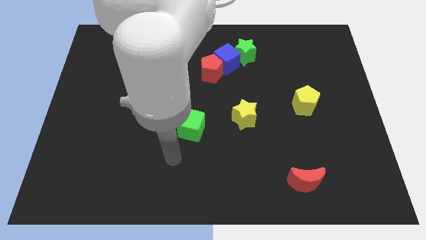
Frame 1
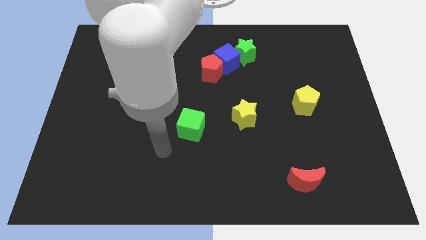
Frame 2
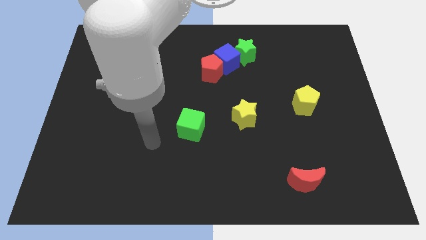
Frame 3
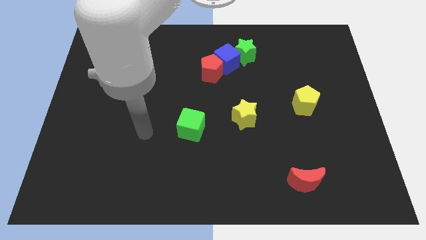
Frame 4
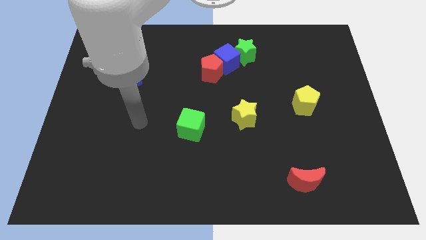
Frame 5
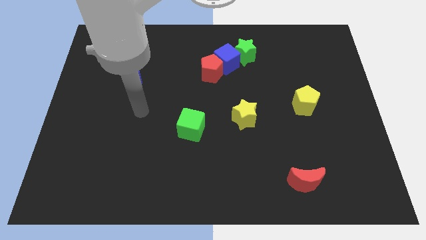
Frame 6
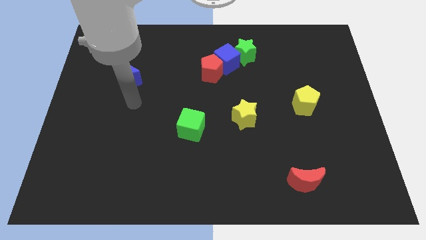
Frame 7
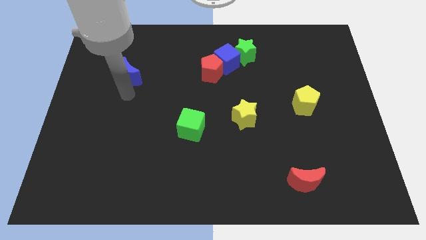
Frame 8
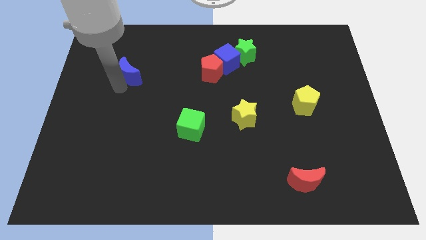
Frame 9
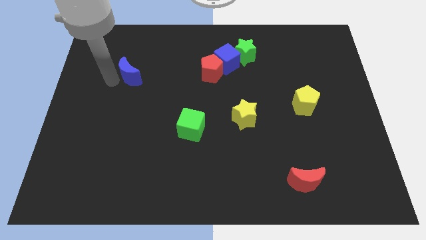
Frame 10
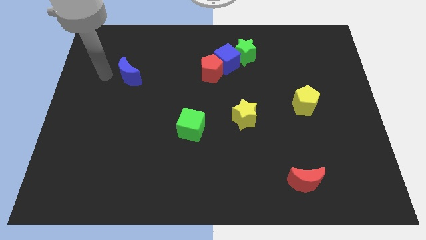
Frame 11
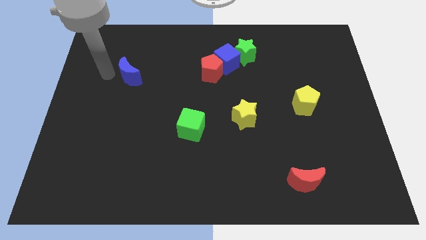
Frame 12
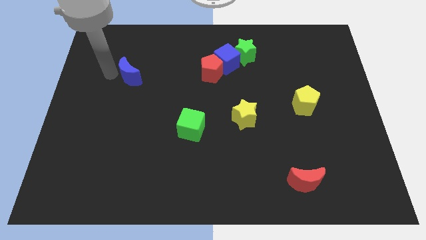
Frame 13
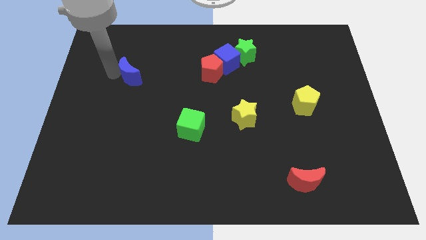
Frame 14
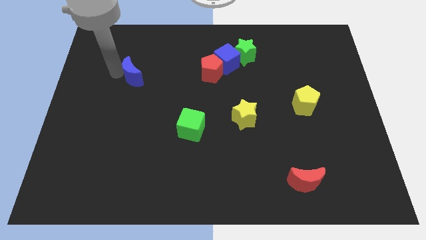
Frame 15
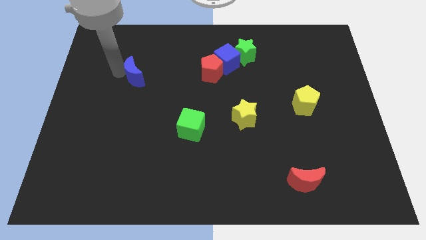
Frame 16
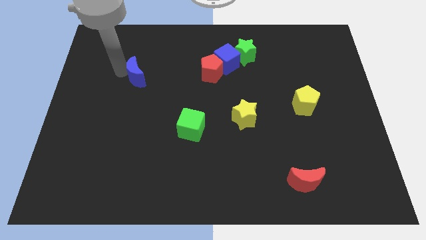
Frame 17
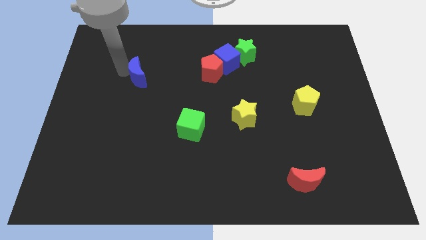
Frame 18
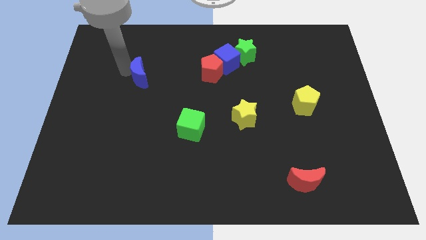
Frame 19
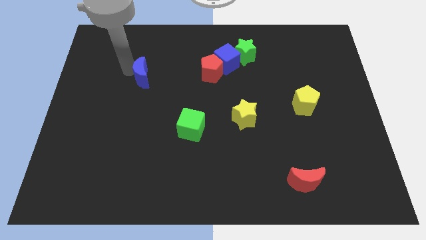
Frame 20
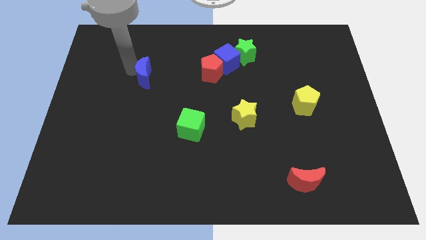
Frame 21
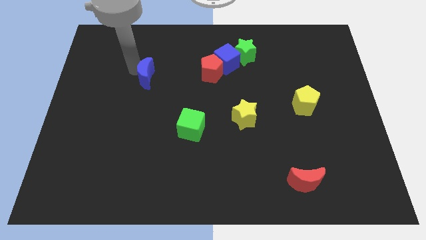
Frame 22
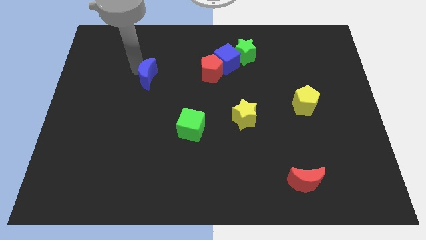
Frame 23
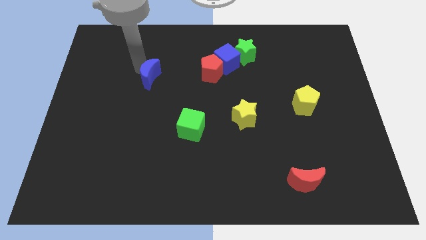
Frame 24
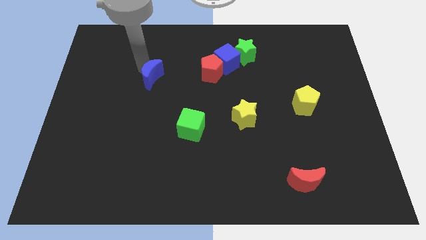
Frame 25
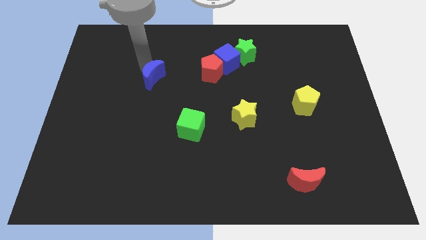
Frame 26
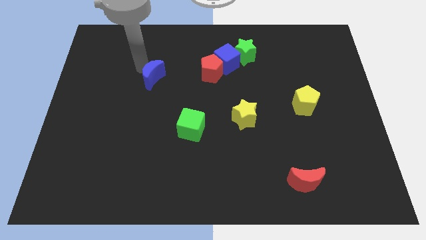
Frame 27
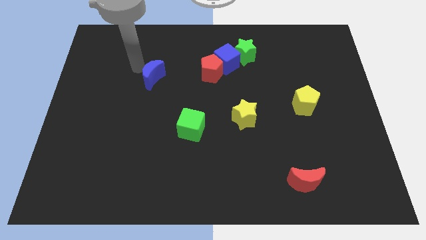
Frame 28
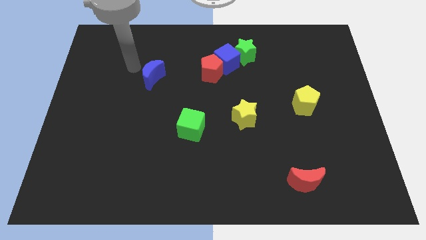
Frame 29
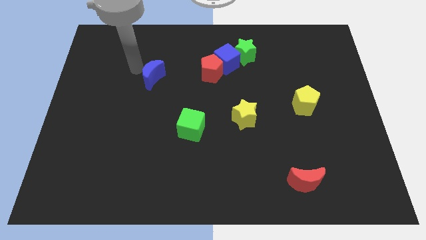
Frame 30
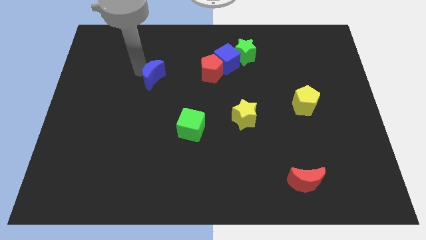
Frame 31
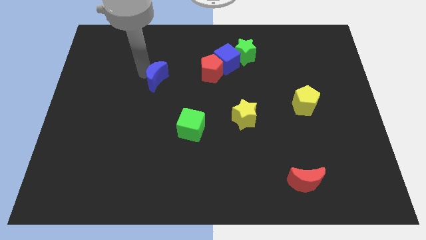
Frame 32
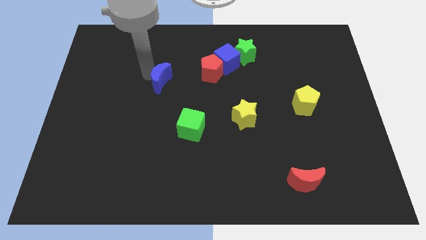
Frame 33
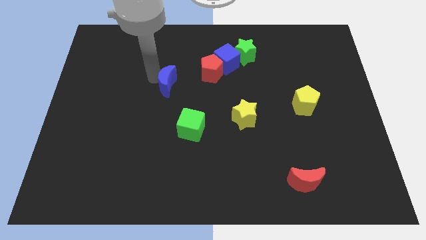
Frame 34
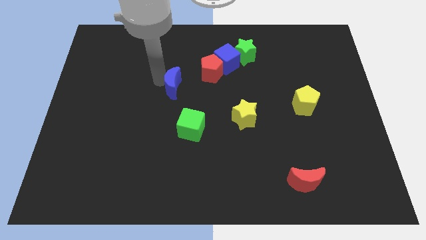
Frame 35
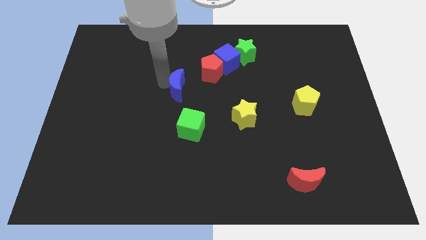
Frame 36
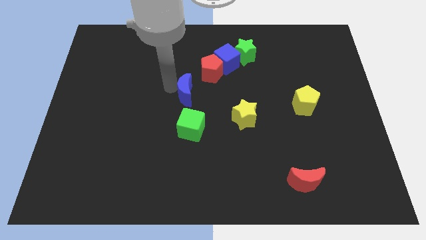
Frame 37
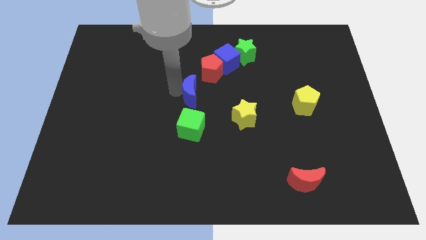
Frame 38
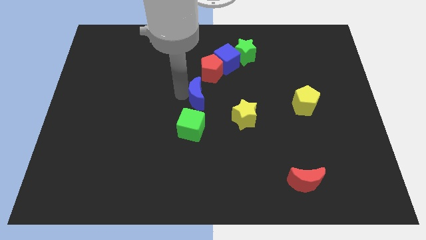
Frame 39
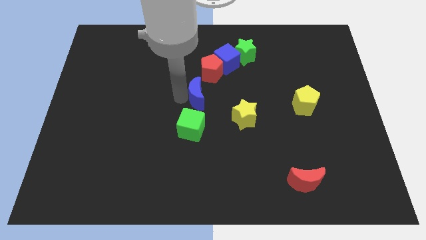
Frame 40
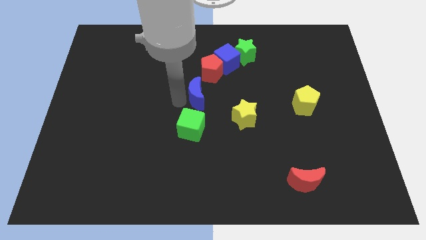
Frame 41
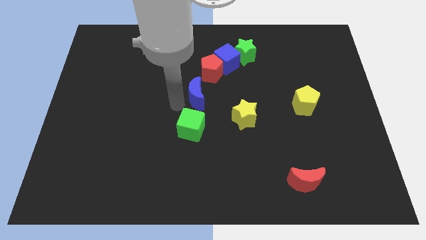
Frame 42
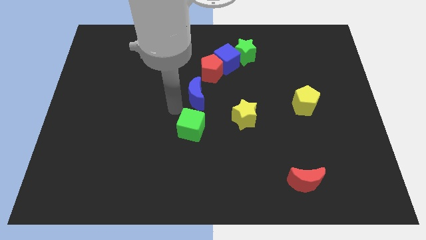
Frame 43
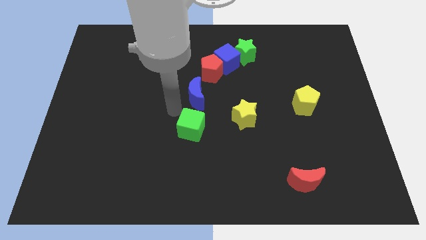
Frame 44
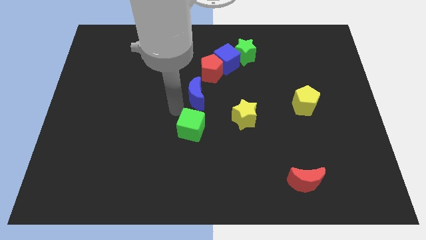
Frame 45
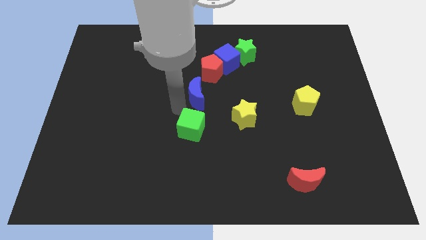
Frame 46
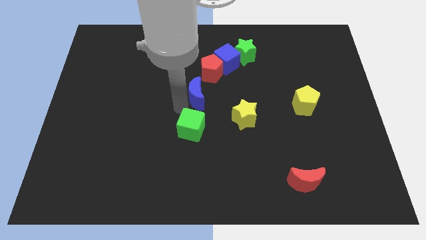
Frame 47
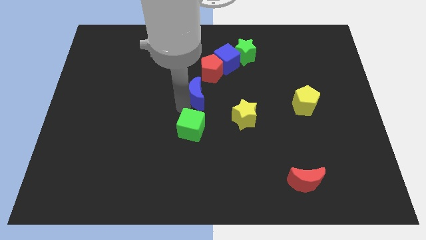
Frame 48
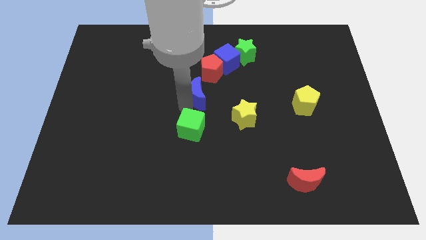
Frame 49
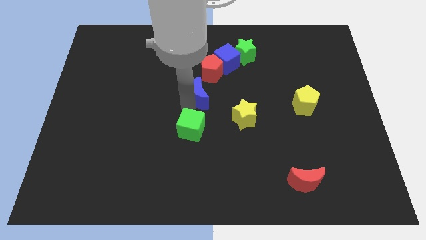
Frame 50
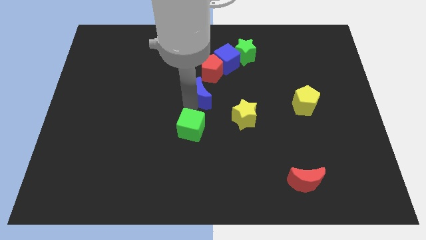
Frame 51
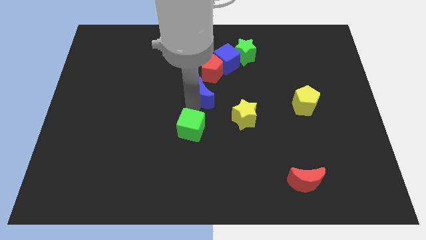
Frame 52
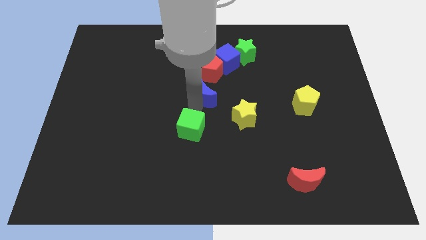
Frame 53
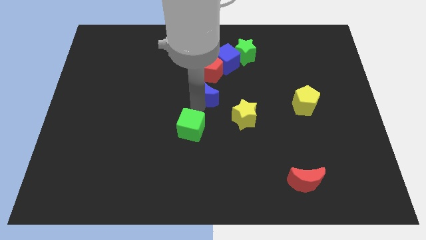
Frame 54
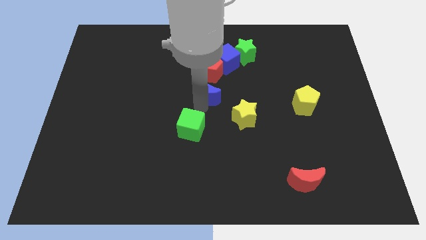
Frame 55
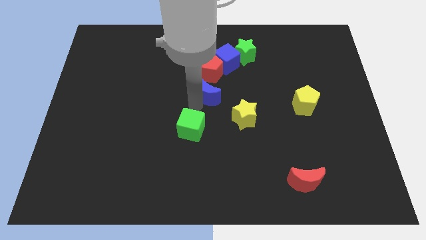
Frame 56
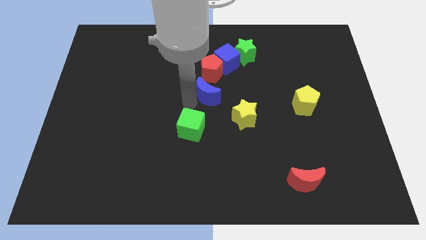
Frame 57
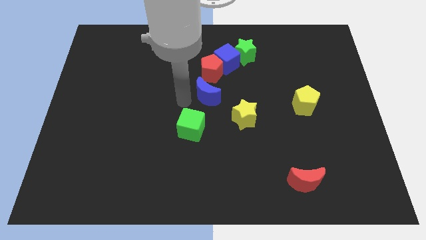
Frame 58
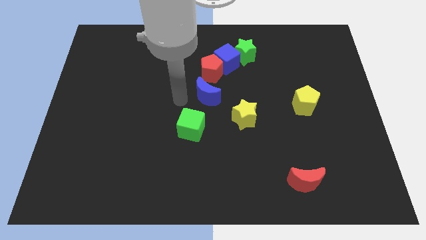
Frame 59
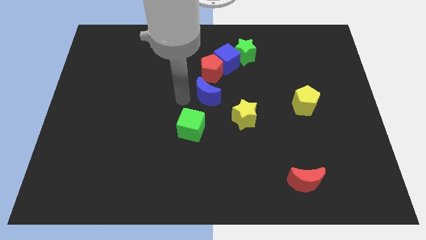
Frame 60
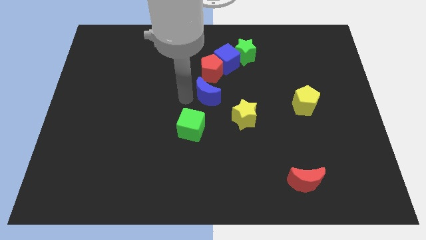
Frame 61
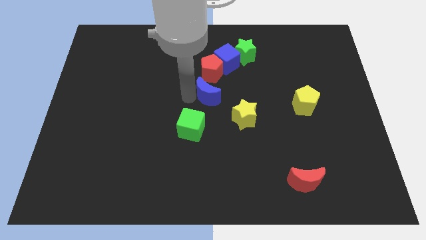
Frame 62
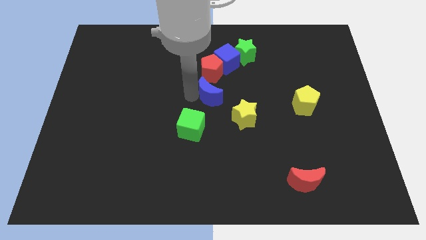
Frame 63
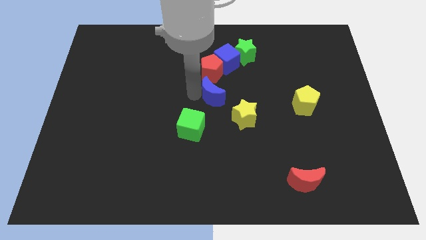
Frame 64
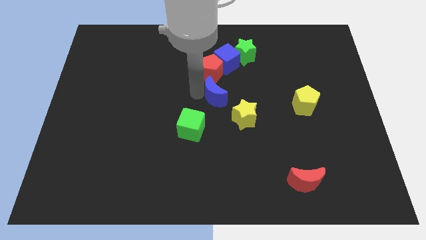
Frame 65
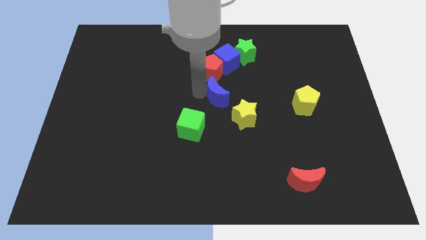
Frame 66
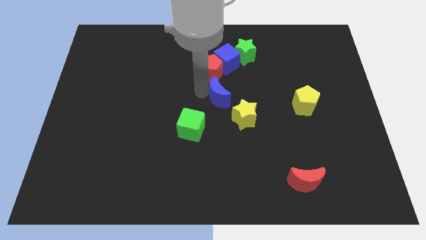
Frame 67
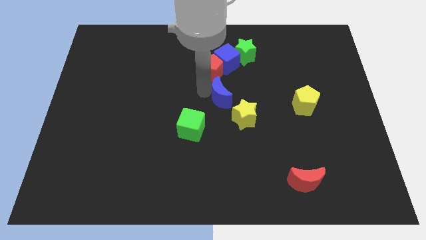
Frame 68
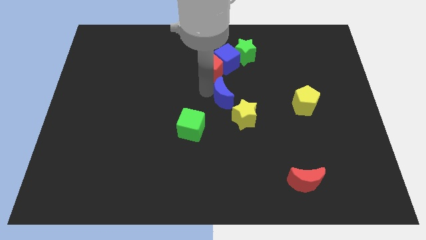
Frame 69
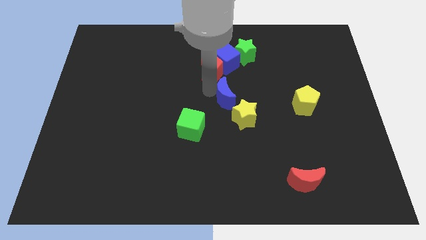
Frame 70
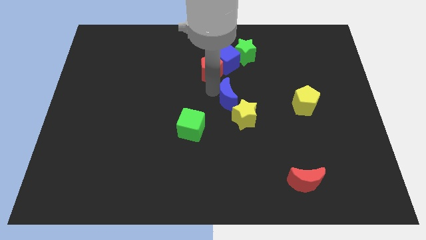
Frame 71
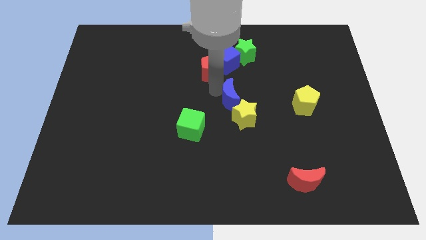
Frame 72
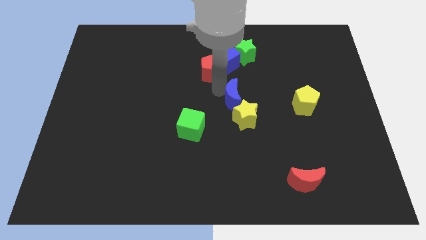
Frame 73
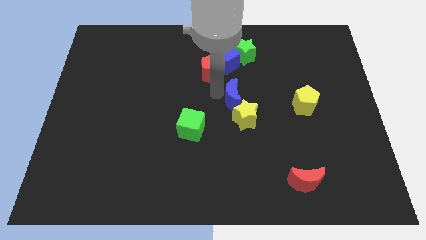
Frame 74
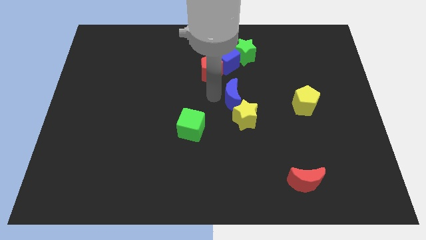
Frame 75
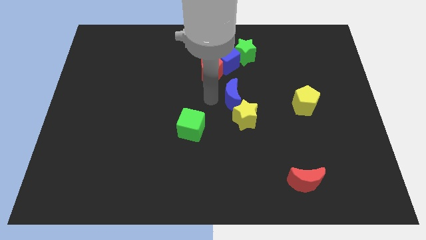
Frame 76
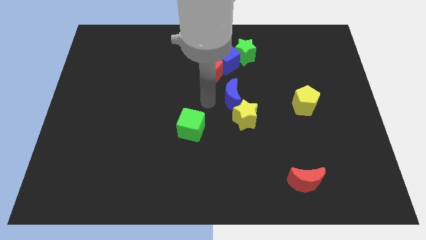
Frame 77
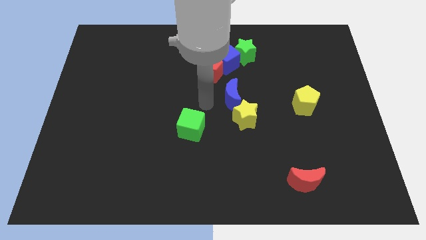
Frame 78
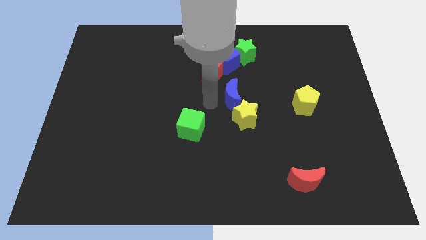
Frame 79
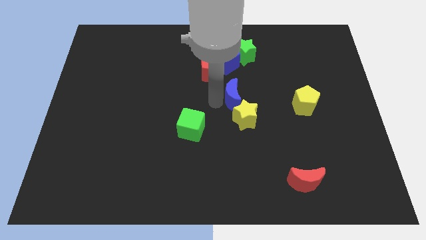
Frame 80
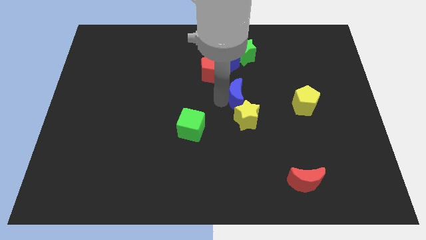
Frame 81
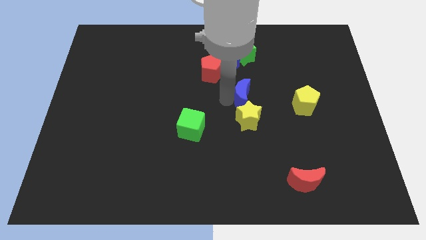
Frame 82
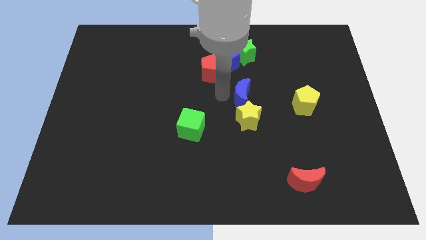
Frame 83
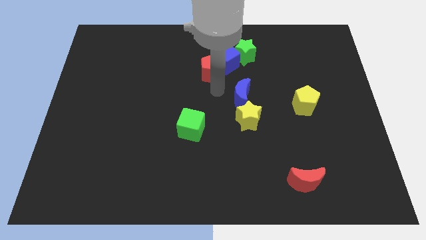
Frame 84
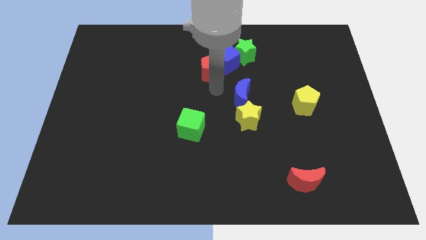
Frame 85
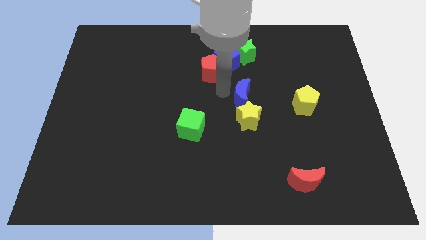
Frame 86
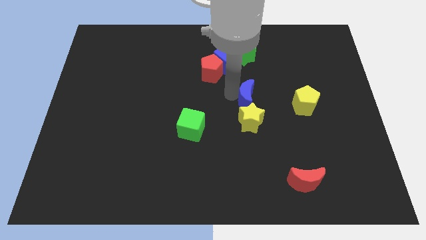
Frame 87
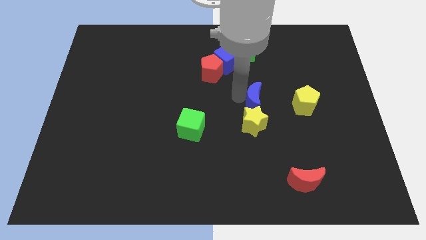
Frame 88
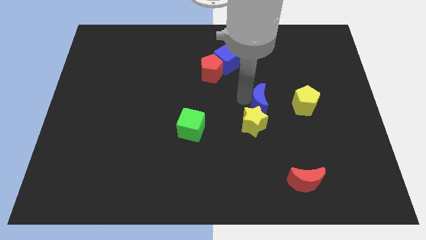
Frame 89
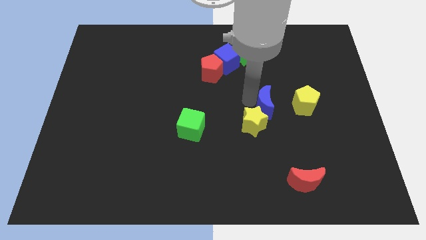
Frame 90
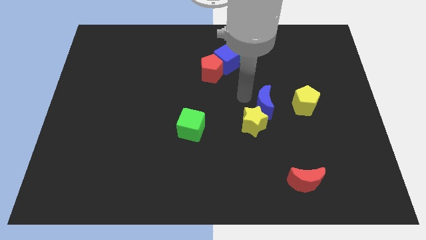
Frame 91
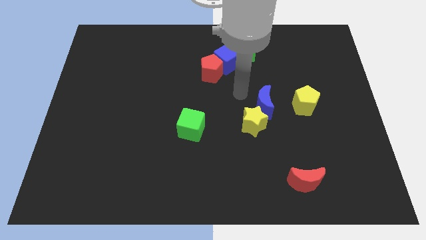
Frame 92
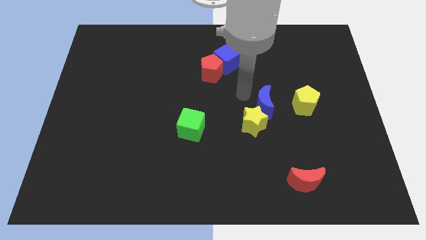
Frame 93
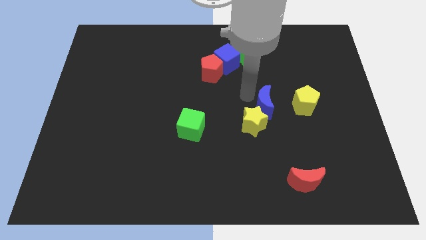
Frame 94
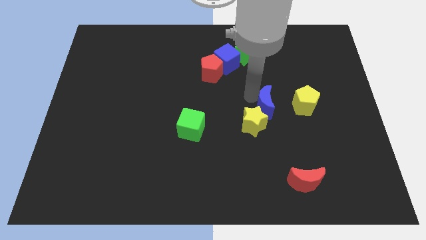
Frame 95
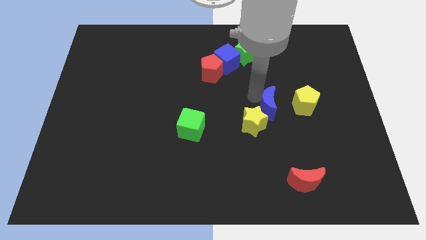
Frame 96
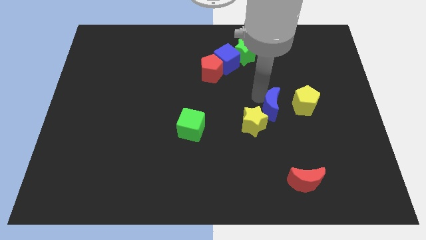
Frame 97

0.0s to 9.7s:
slide the blue moon just right of the yellow star
